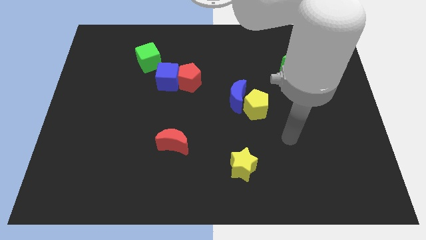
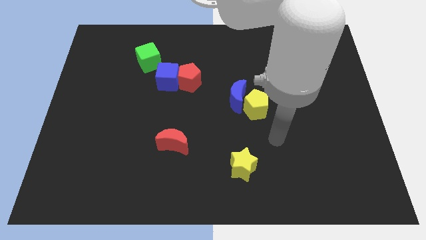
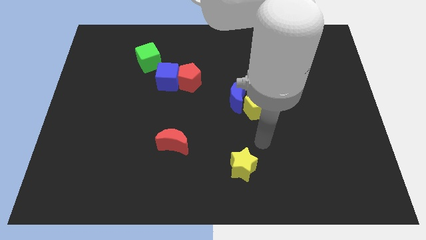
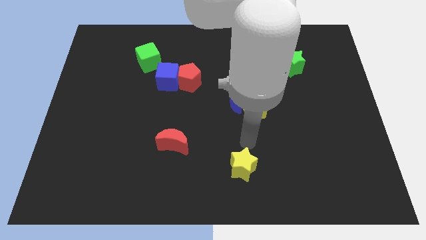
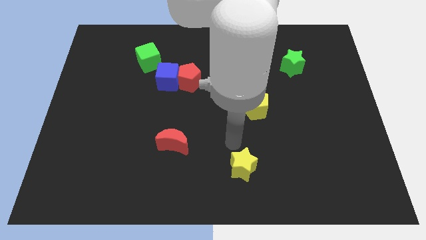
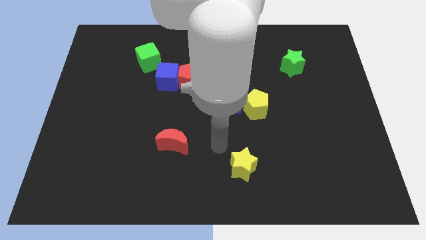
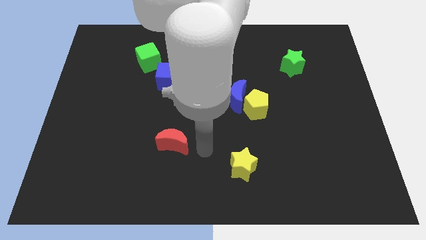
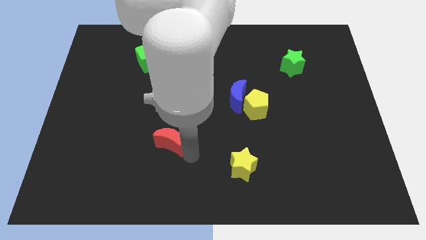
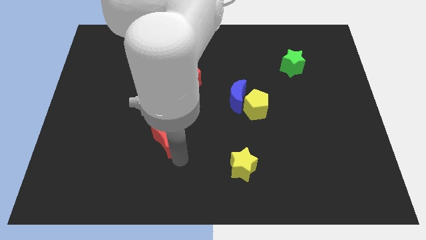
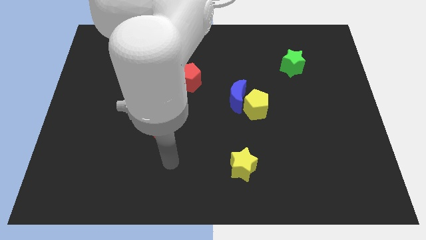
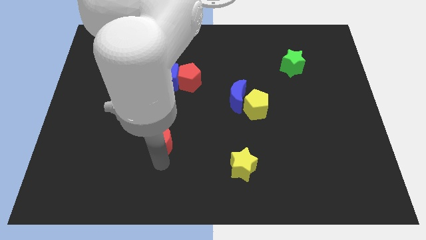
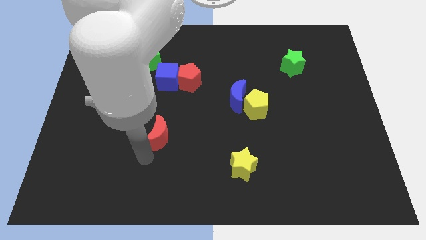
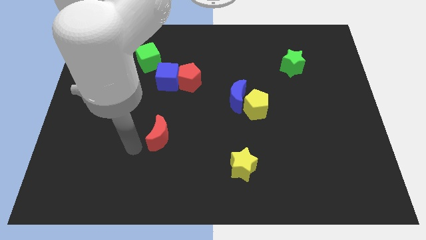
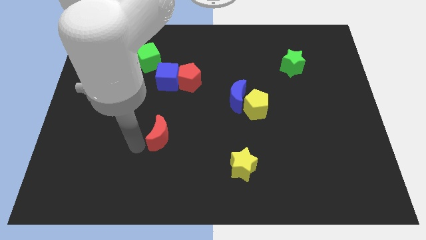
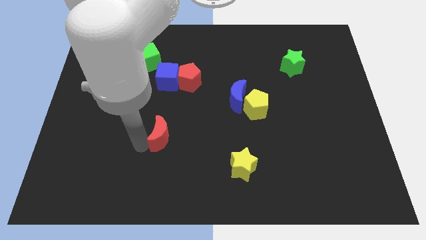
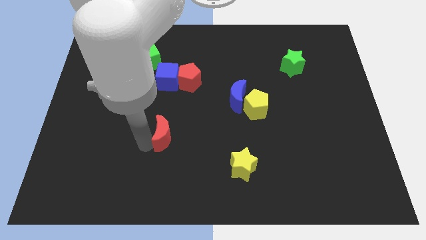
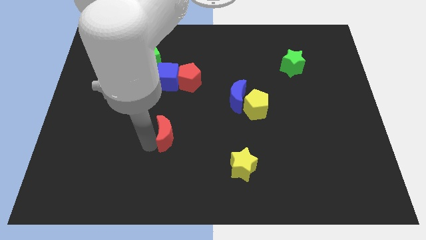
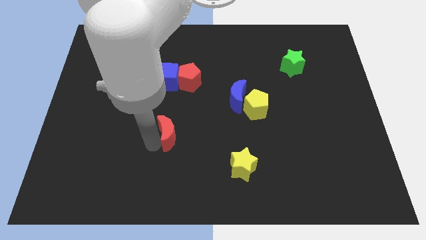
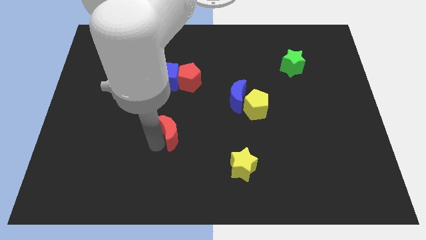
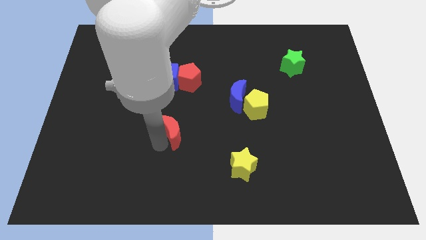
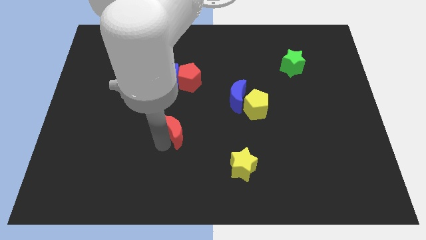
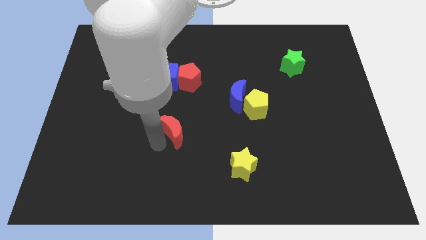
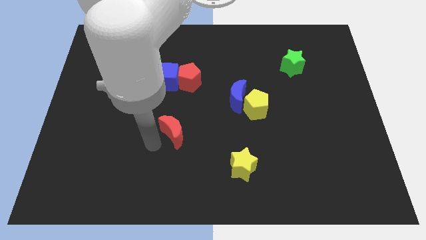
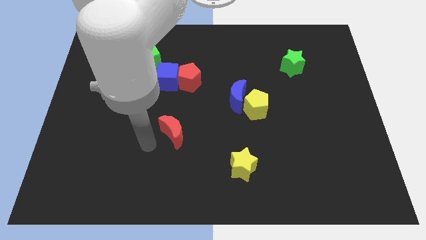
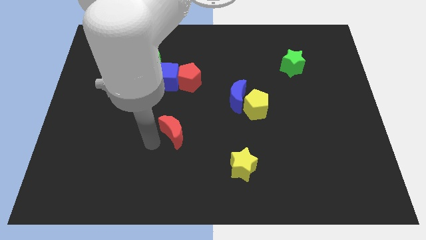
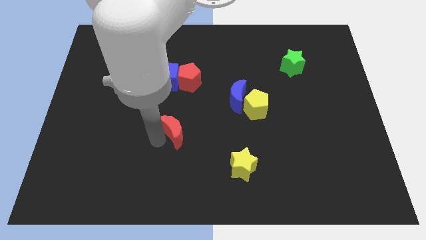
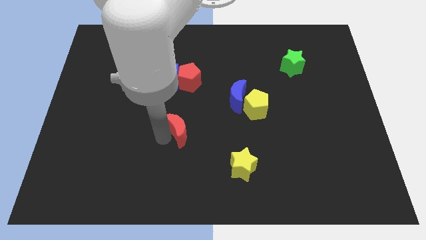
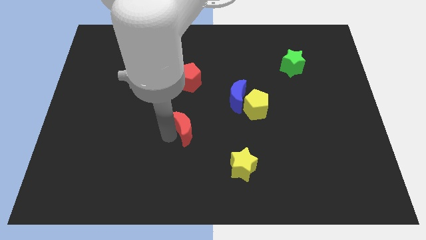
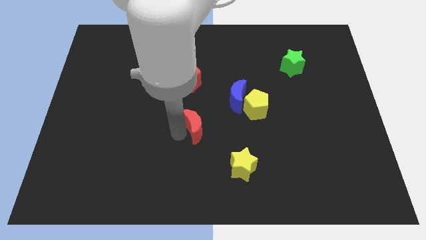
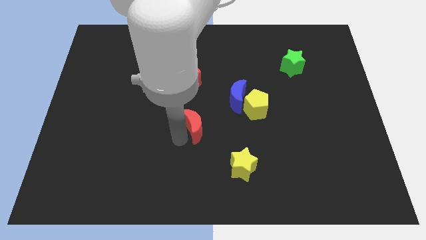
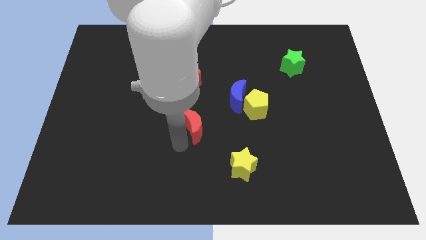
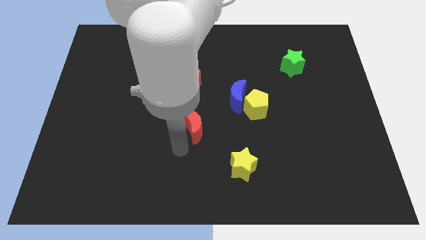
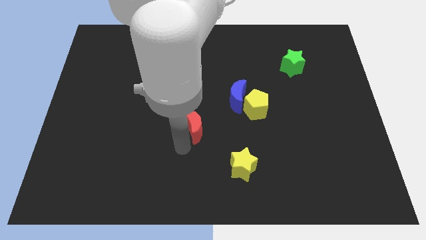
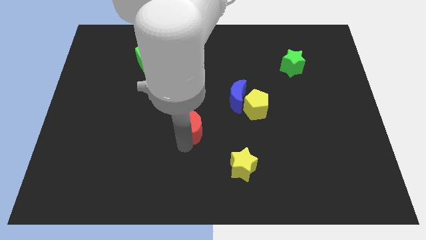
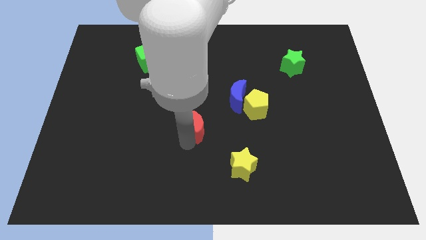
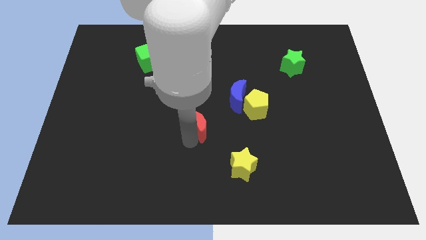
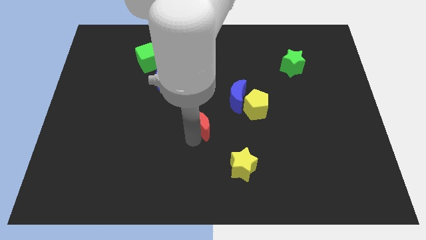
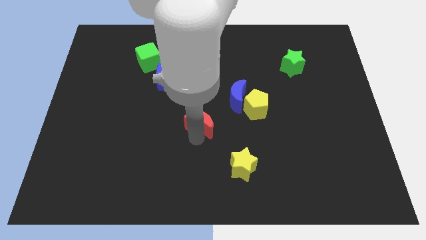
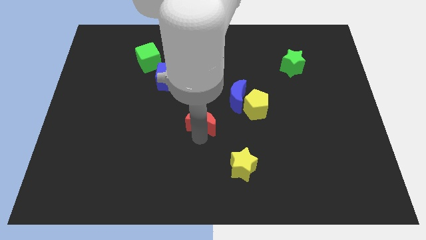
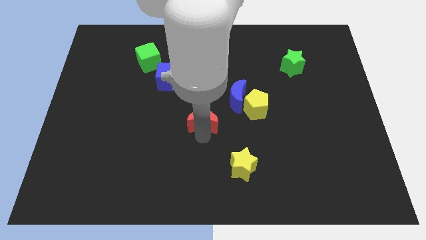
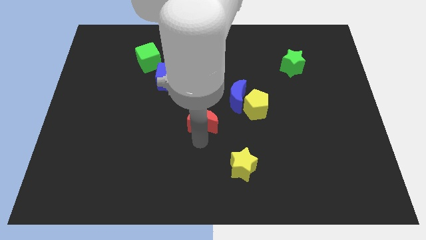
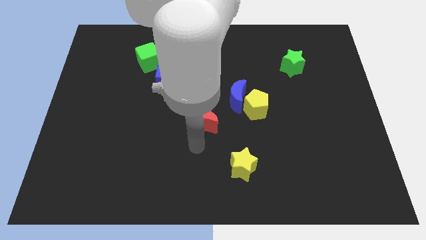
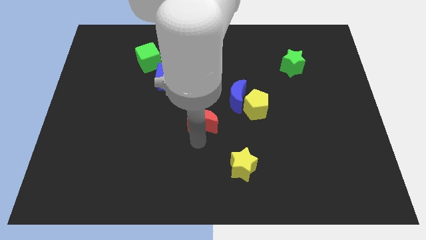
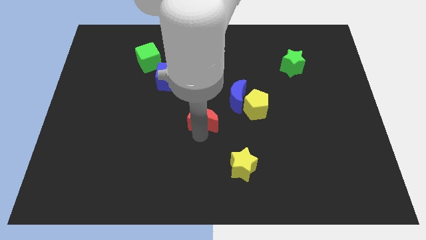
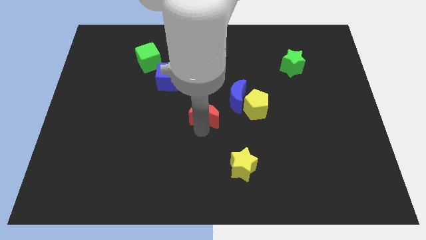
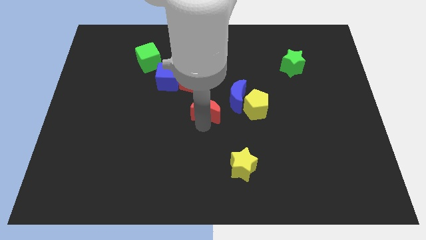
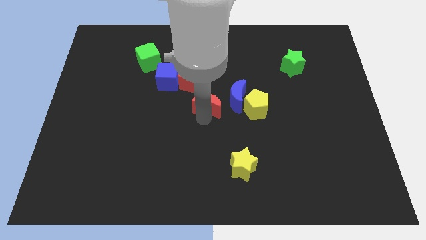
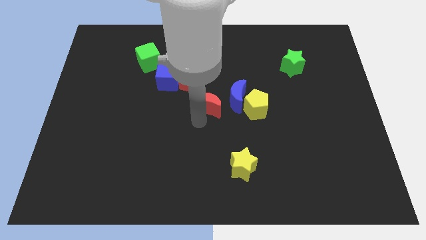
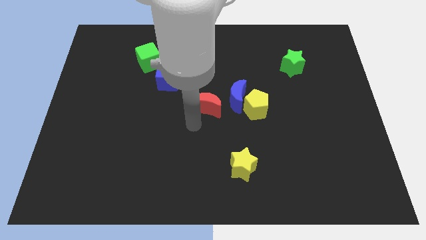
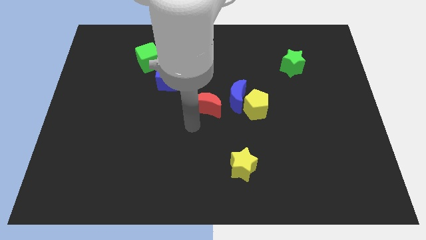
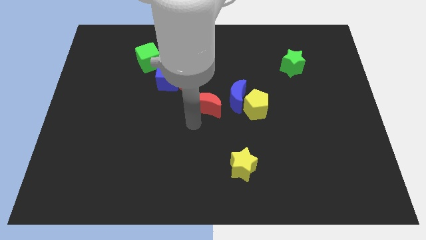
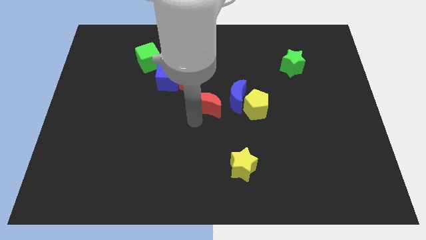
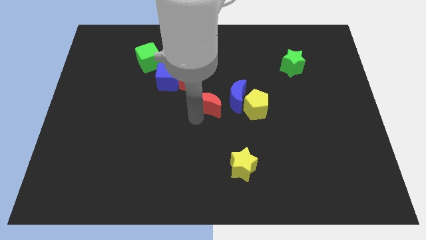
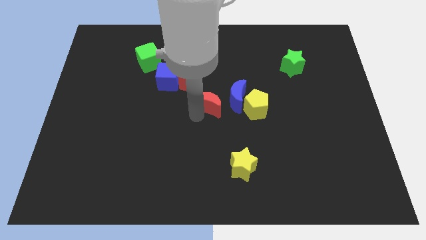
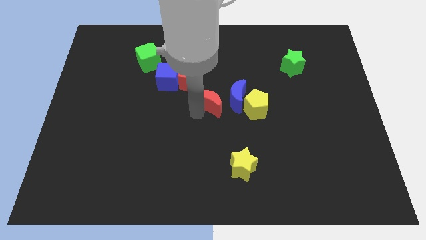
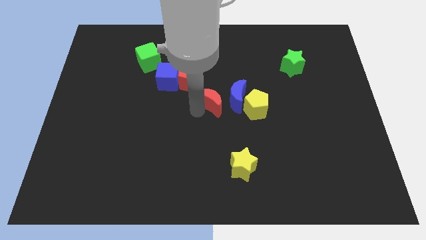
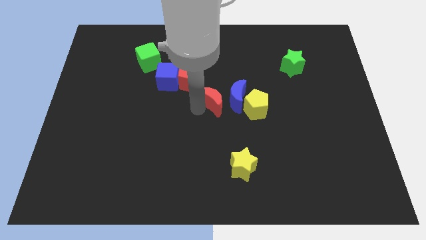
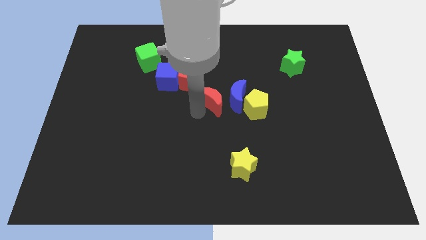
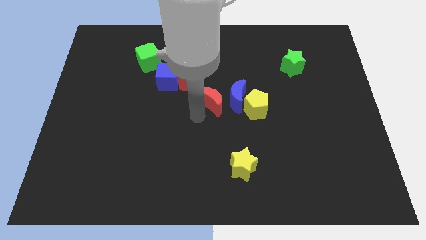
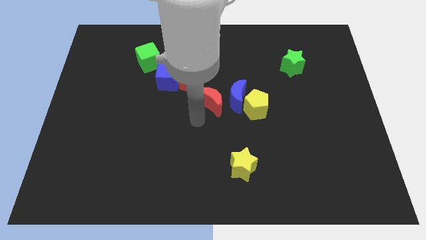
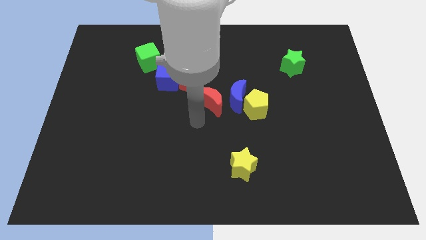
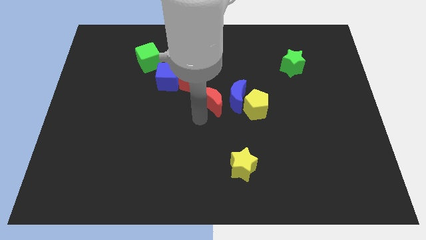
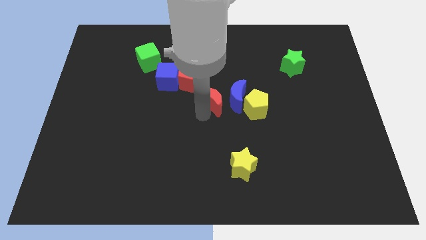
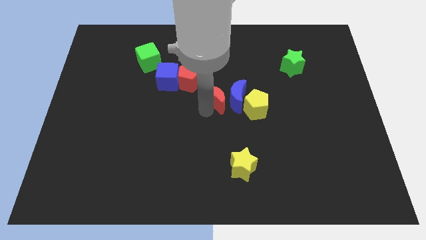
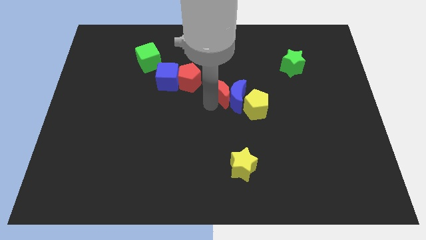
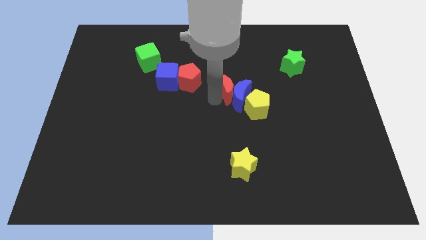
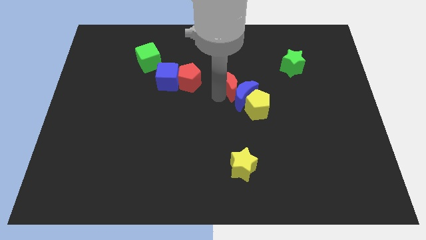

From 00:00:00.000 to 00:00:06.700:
push the red moon up and then to the right

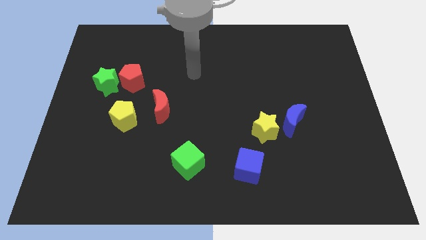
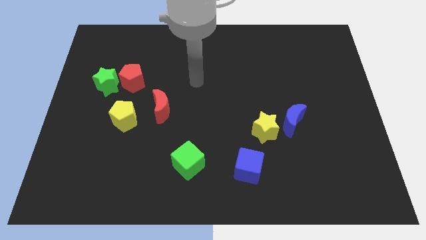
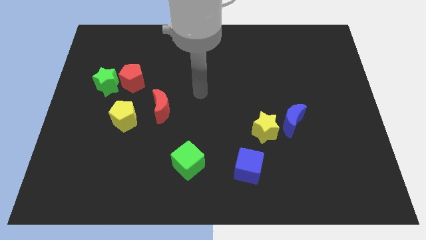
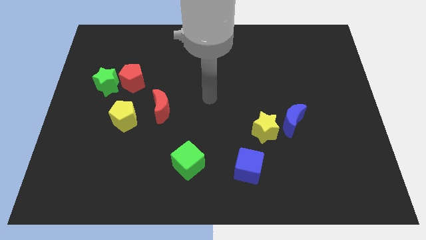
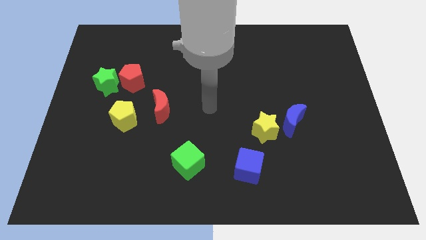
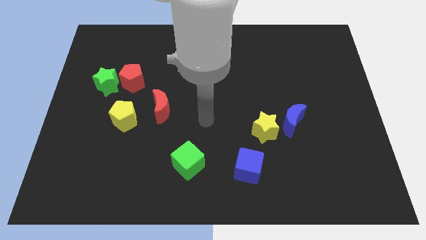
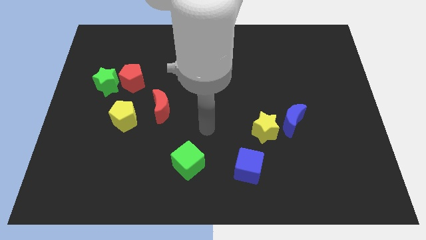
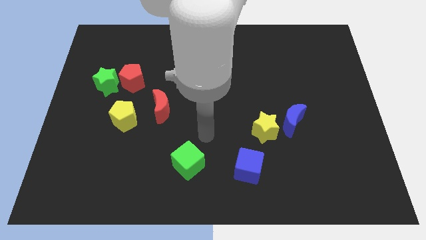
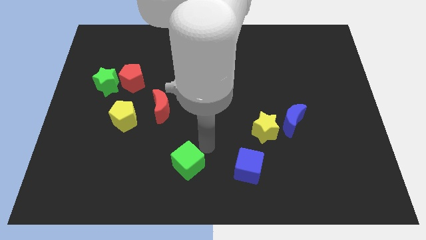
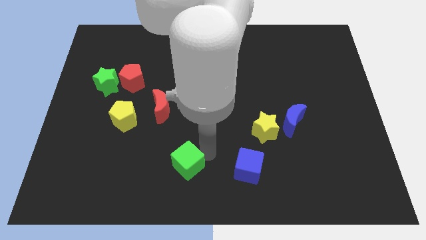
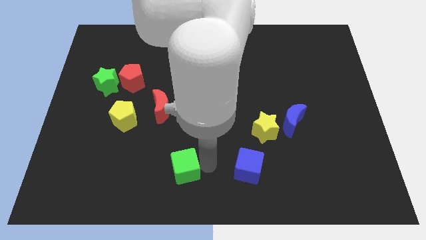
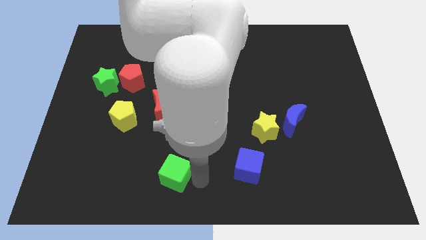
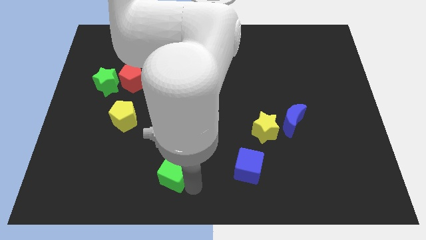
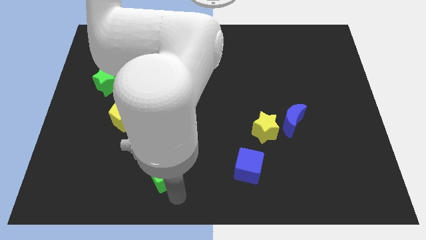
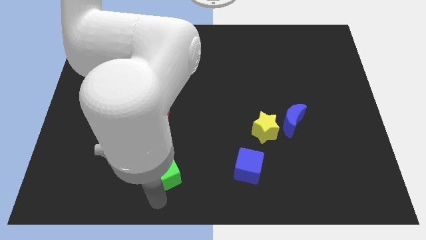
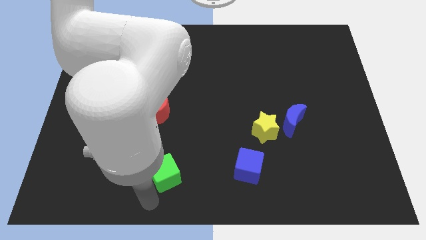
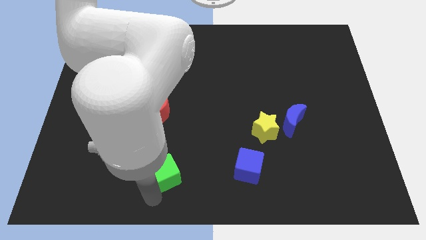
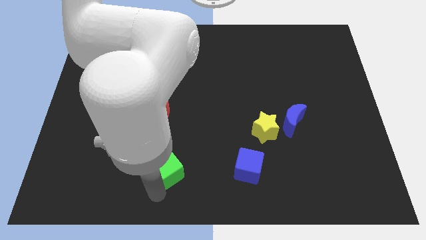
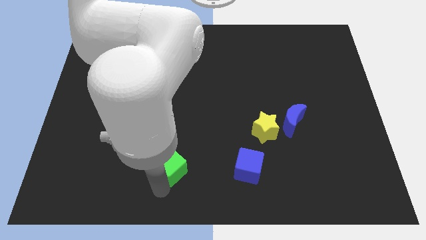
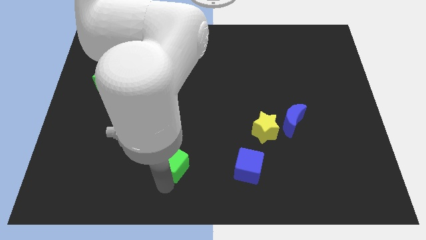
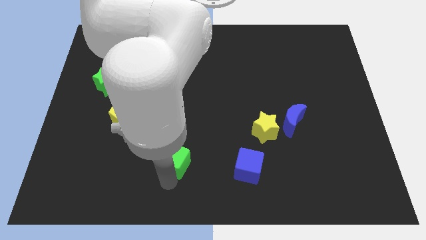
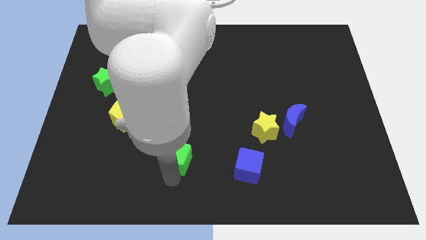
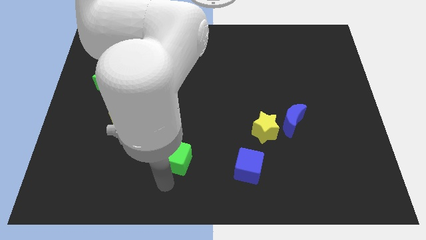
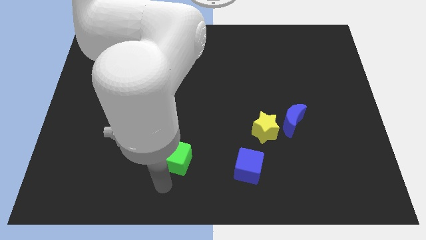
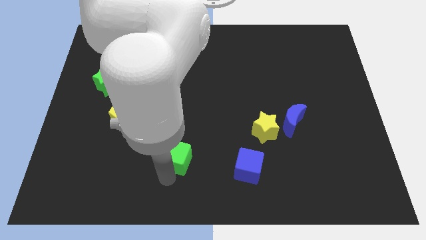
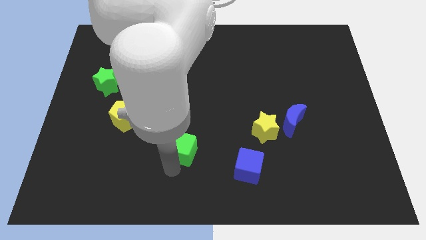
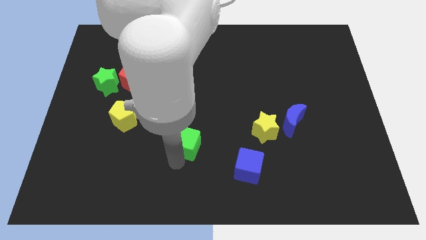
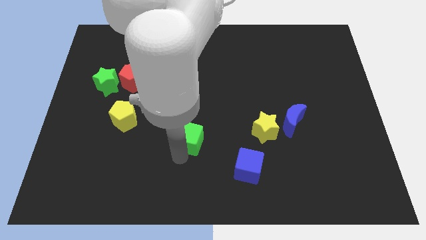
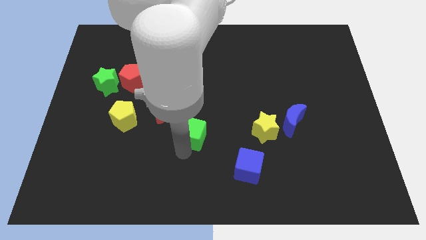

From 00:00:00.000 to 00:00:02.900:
slide the green cube somewhat upwards
